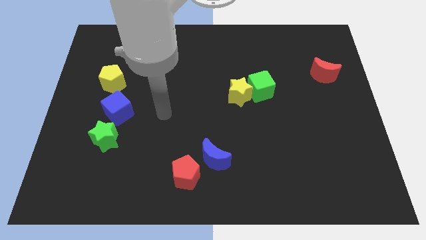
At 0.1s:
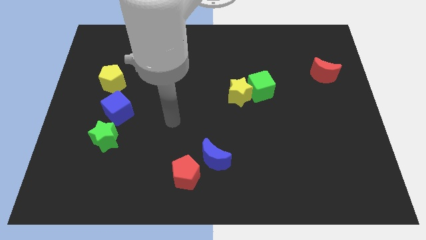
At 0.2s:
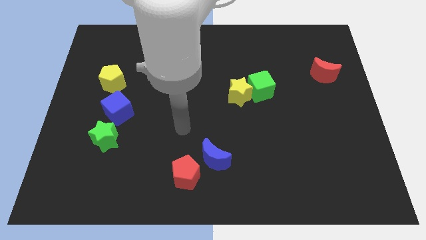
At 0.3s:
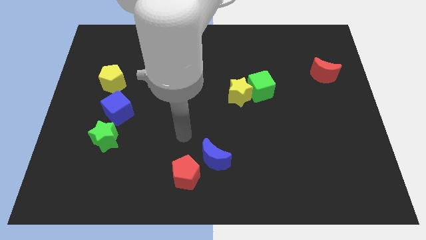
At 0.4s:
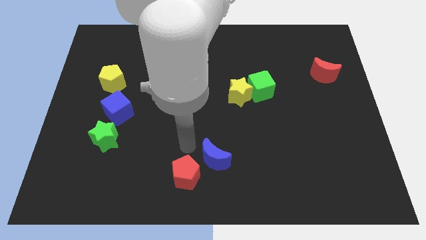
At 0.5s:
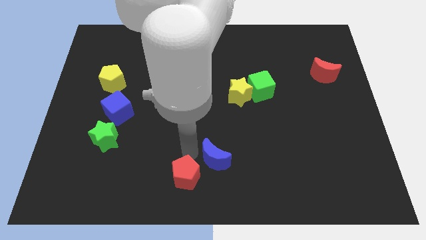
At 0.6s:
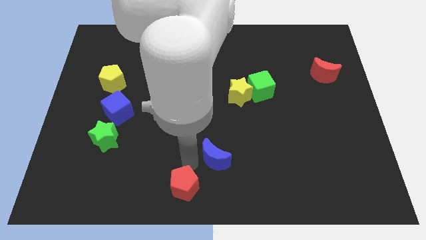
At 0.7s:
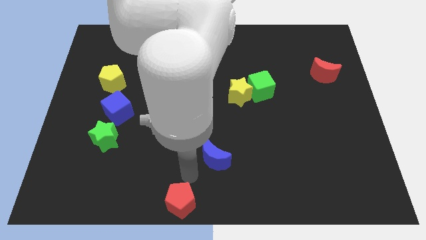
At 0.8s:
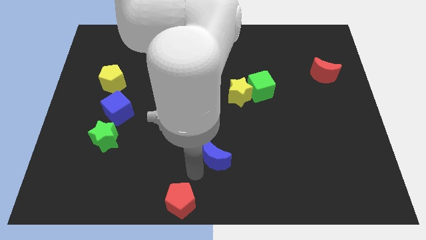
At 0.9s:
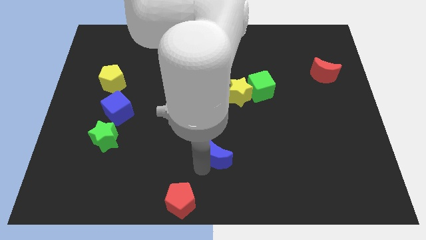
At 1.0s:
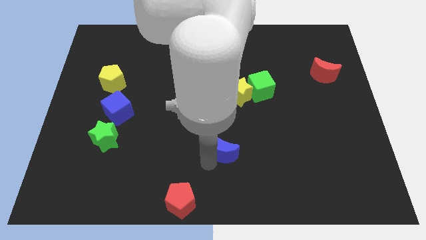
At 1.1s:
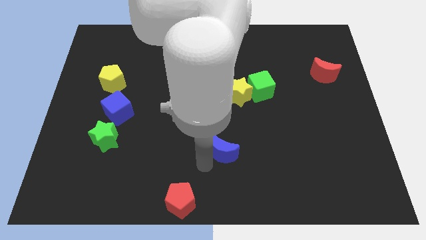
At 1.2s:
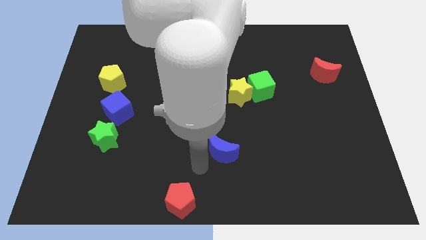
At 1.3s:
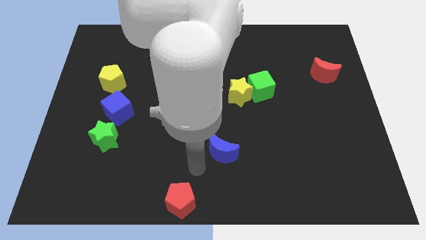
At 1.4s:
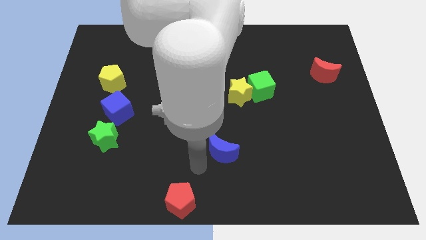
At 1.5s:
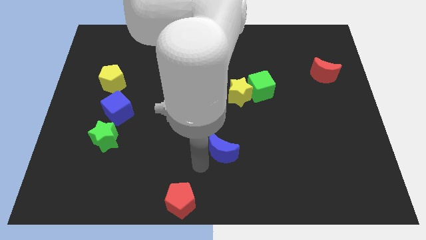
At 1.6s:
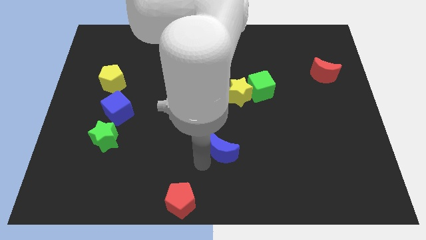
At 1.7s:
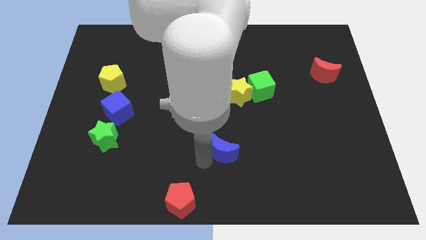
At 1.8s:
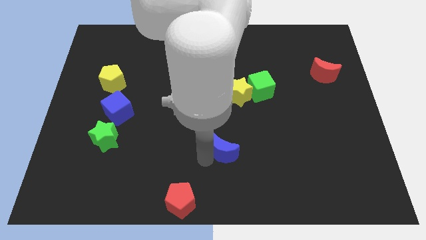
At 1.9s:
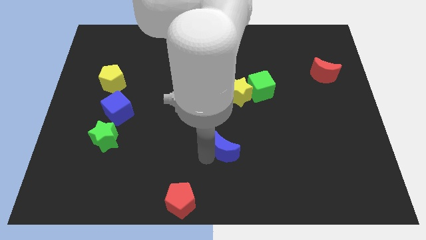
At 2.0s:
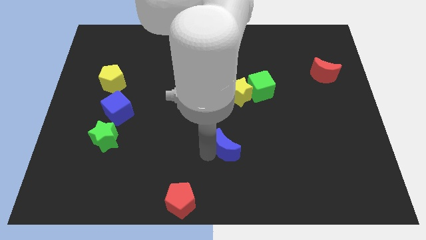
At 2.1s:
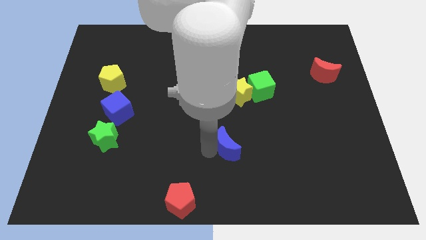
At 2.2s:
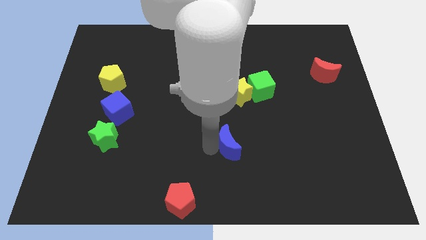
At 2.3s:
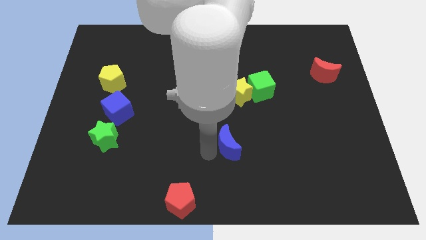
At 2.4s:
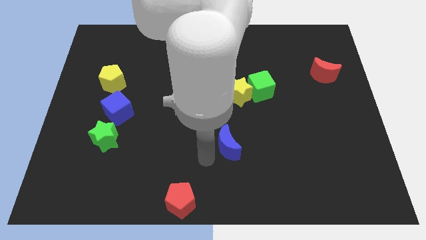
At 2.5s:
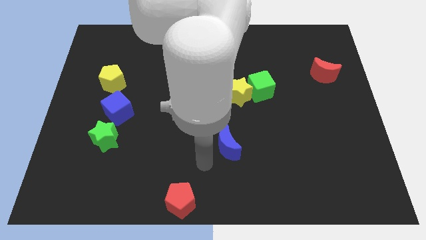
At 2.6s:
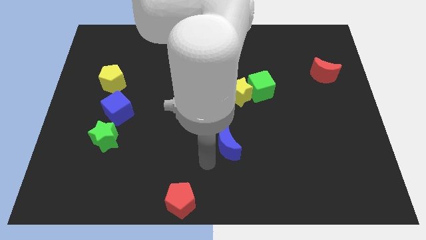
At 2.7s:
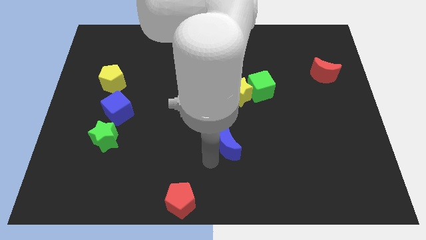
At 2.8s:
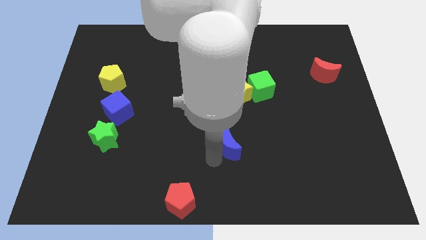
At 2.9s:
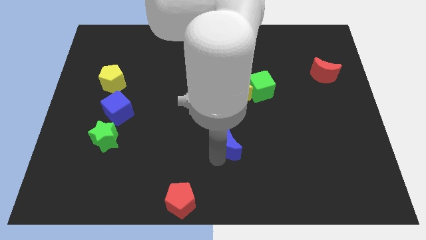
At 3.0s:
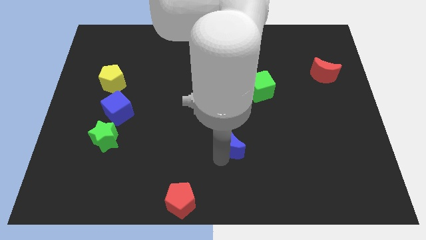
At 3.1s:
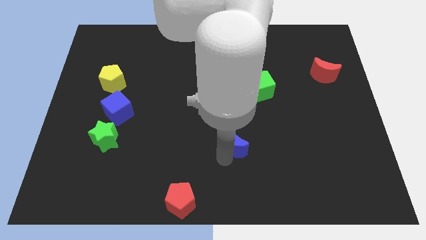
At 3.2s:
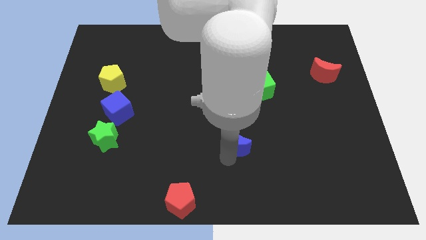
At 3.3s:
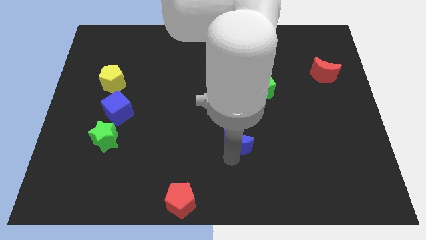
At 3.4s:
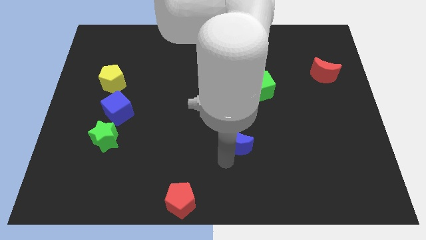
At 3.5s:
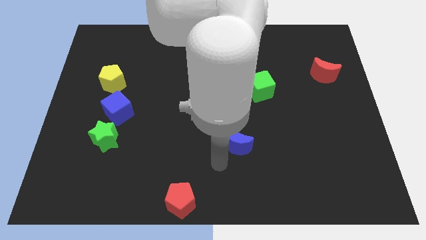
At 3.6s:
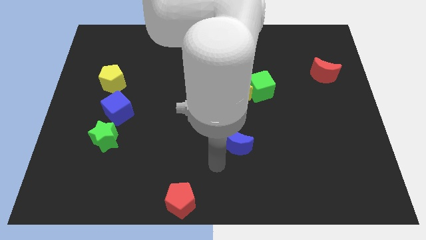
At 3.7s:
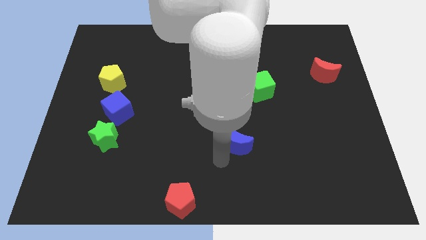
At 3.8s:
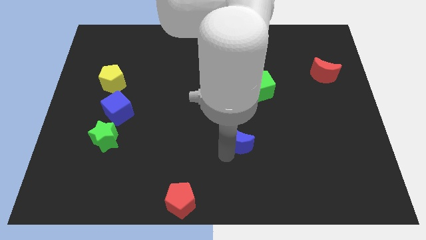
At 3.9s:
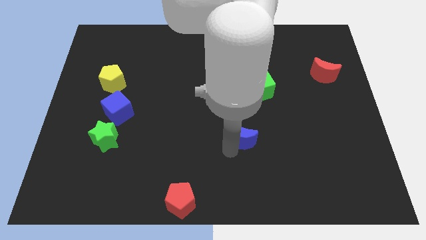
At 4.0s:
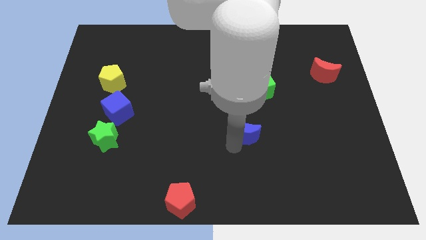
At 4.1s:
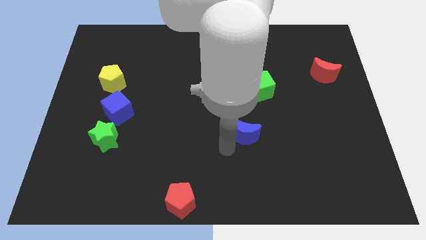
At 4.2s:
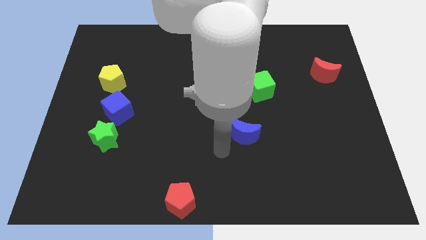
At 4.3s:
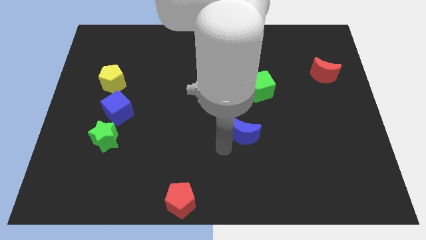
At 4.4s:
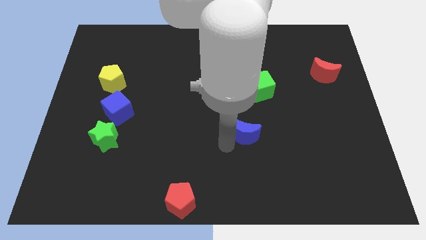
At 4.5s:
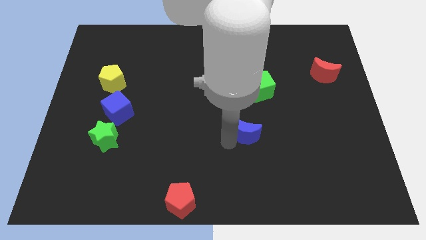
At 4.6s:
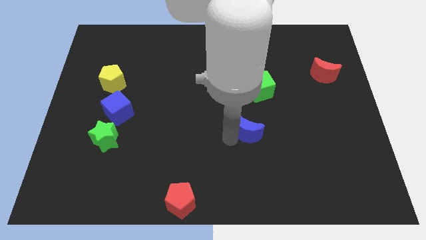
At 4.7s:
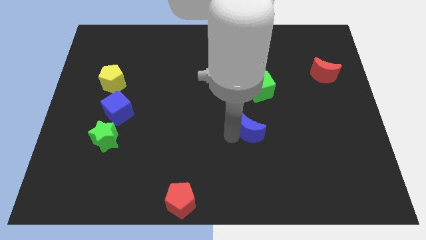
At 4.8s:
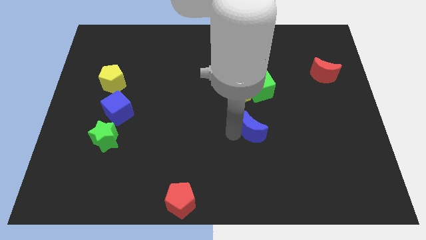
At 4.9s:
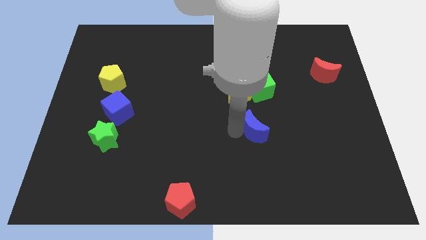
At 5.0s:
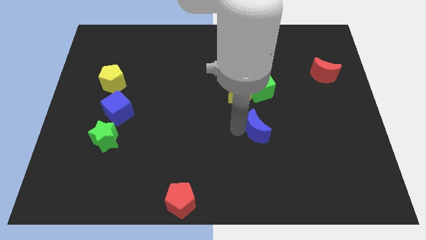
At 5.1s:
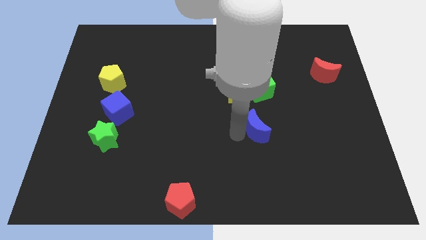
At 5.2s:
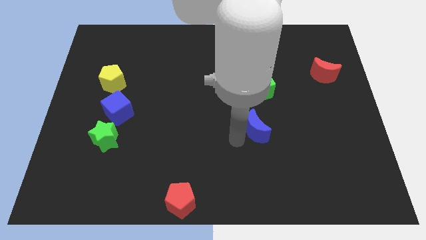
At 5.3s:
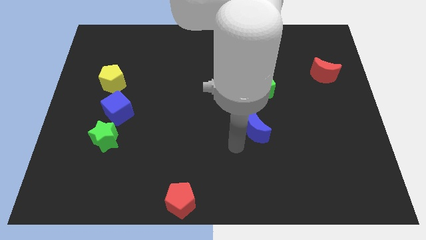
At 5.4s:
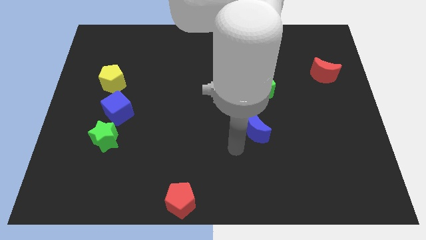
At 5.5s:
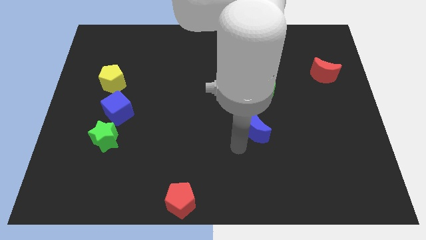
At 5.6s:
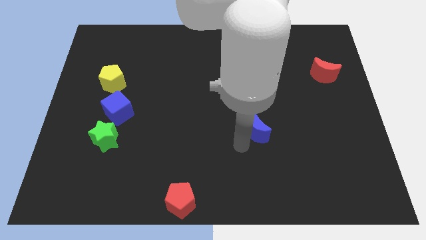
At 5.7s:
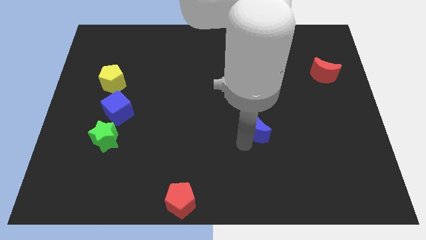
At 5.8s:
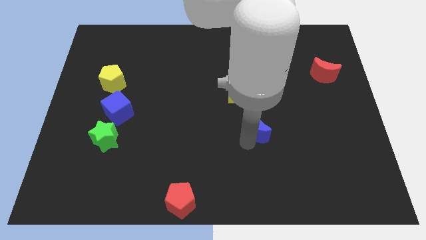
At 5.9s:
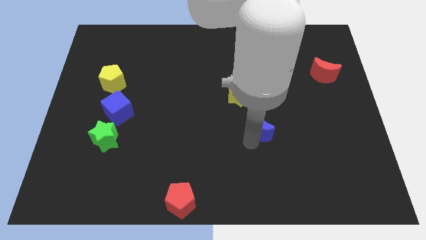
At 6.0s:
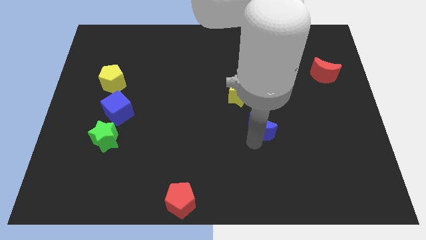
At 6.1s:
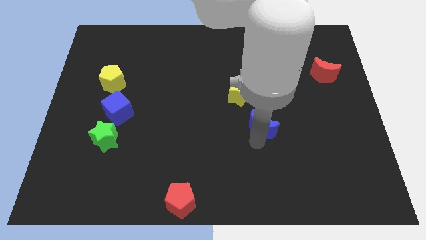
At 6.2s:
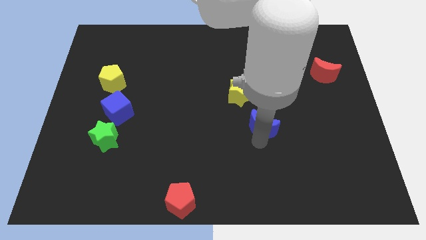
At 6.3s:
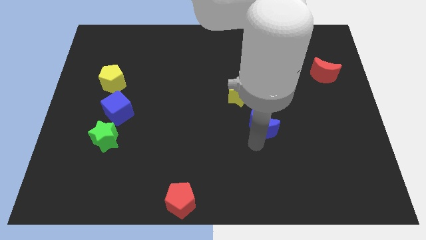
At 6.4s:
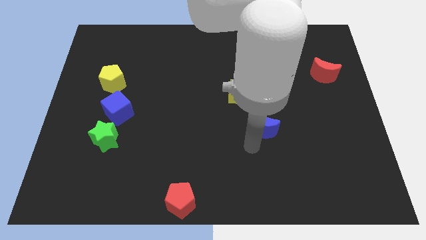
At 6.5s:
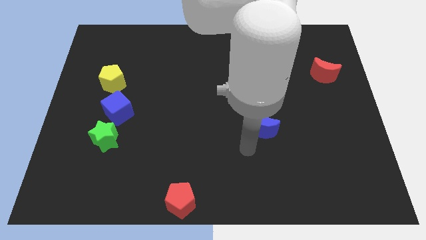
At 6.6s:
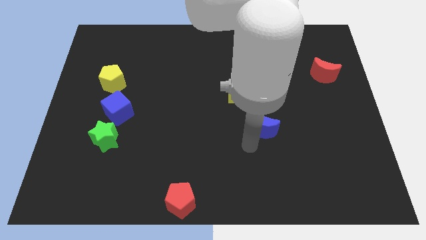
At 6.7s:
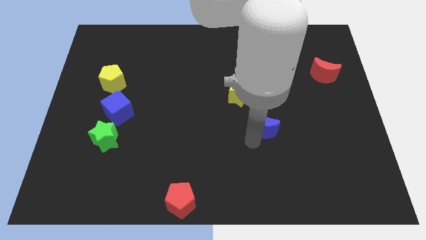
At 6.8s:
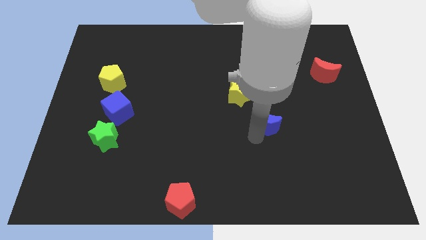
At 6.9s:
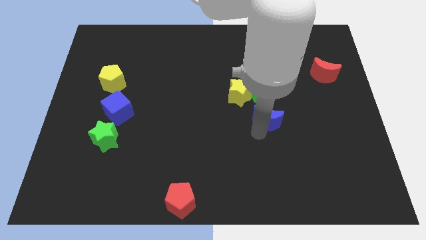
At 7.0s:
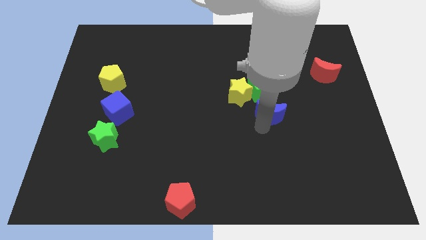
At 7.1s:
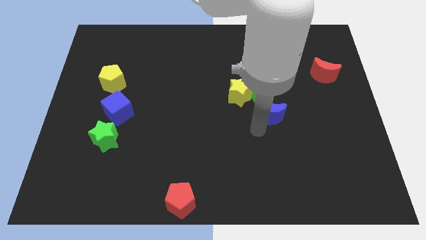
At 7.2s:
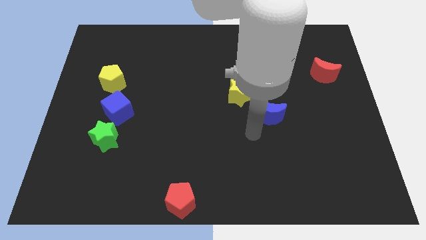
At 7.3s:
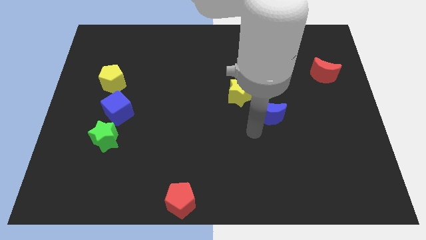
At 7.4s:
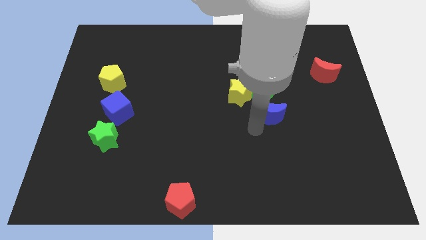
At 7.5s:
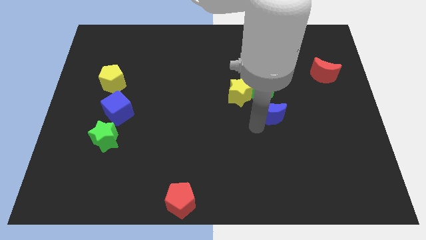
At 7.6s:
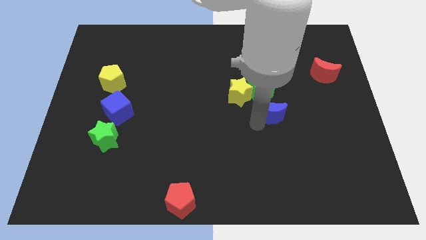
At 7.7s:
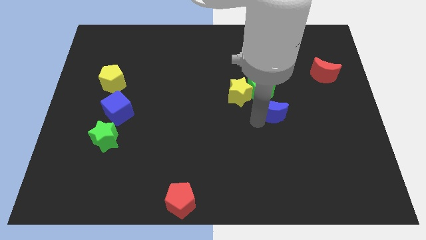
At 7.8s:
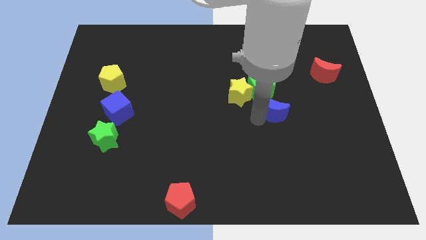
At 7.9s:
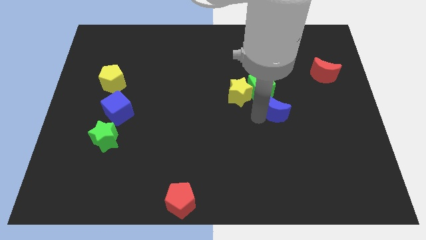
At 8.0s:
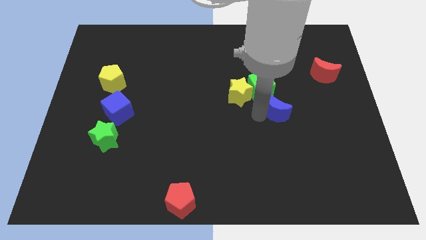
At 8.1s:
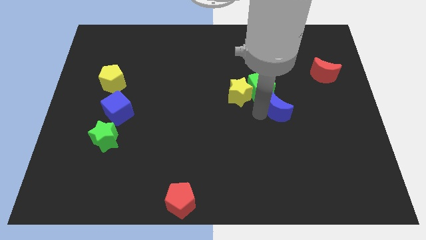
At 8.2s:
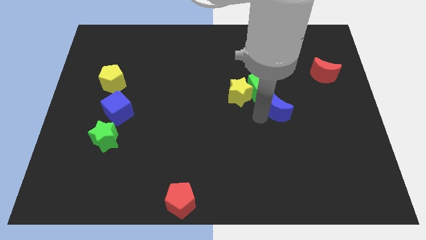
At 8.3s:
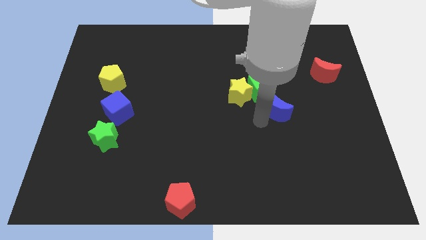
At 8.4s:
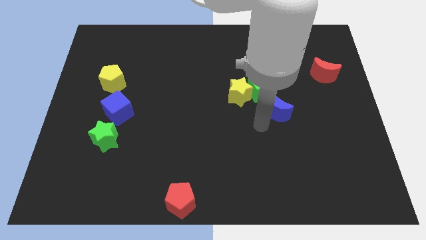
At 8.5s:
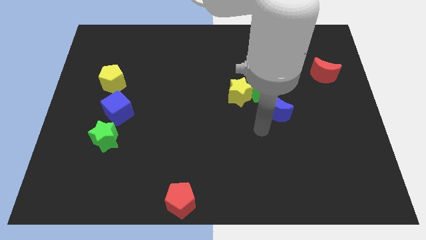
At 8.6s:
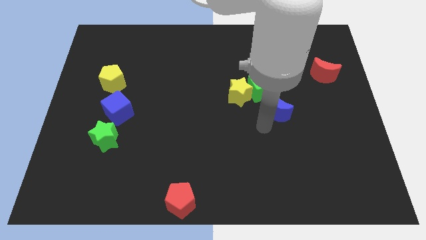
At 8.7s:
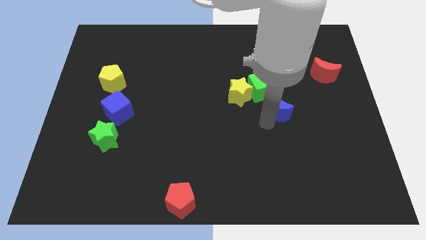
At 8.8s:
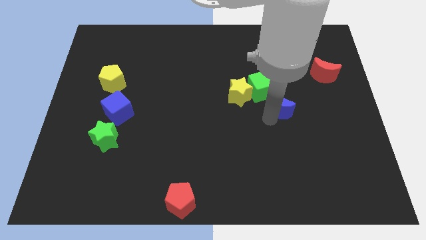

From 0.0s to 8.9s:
push the blue moon up and right diagonally
